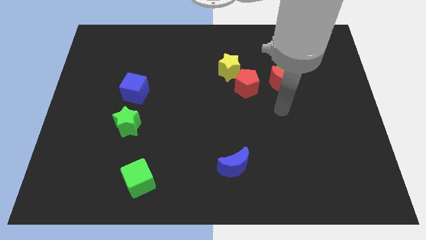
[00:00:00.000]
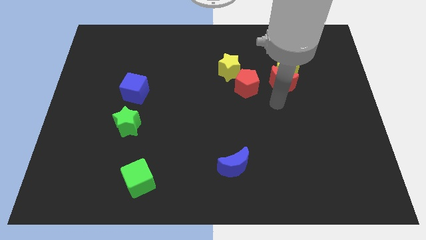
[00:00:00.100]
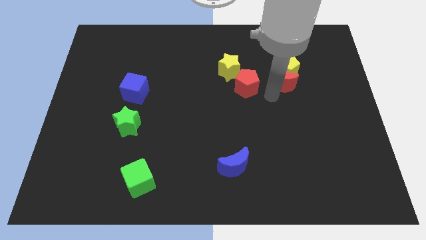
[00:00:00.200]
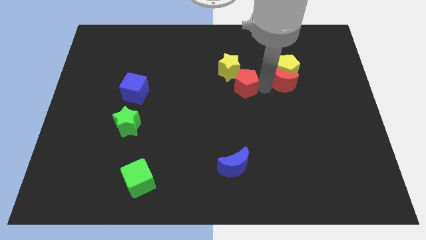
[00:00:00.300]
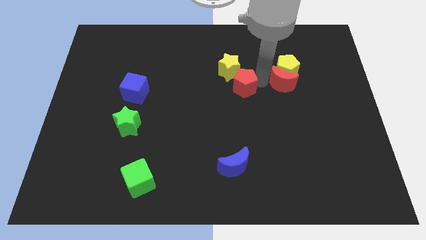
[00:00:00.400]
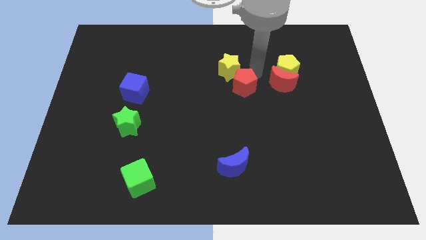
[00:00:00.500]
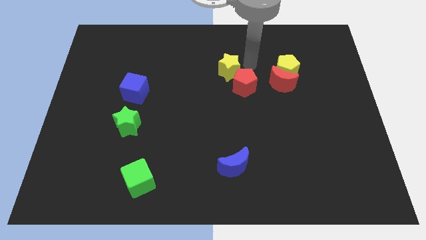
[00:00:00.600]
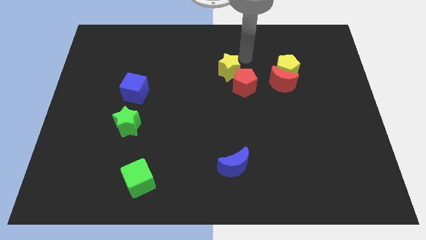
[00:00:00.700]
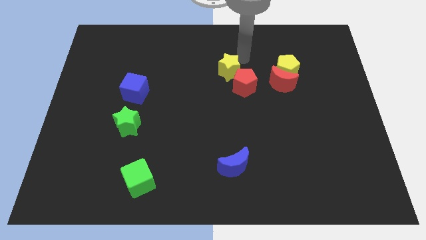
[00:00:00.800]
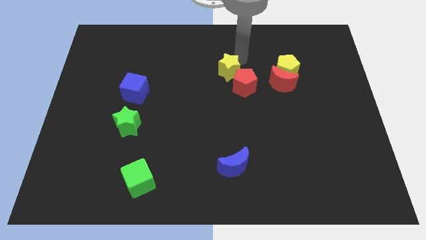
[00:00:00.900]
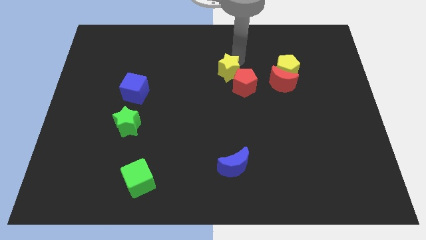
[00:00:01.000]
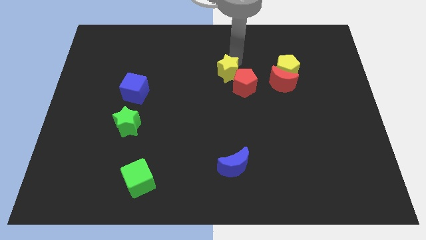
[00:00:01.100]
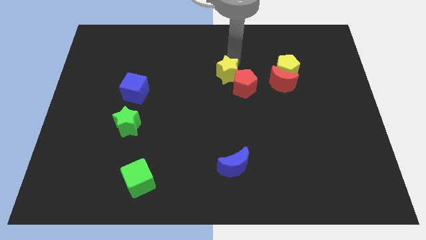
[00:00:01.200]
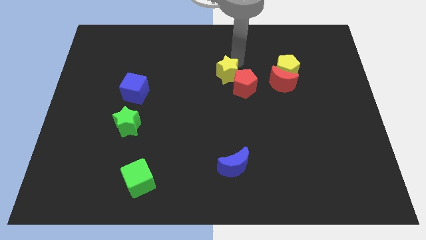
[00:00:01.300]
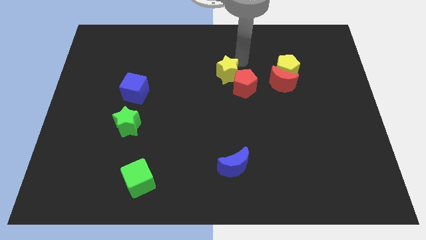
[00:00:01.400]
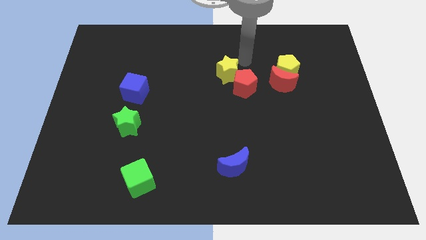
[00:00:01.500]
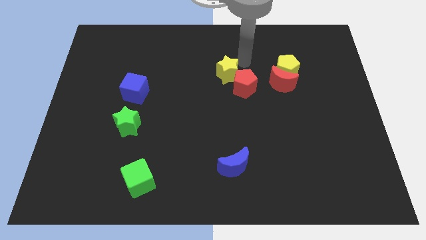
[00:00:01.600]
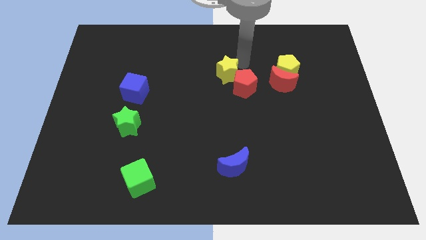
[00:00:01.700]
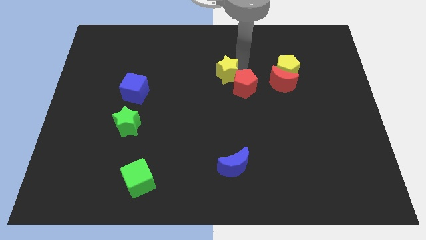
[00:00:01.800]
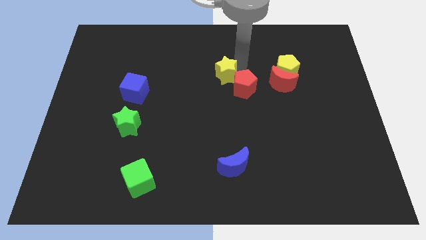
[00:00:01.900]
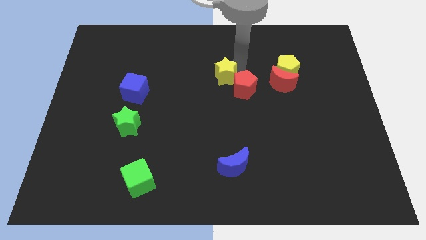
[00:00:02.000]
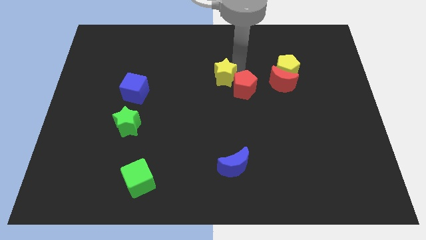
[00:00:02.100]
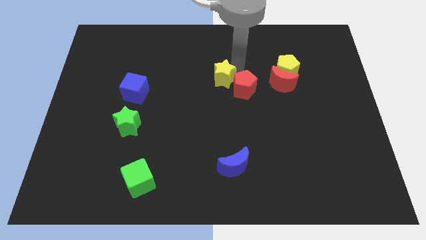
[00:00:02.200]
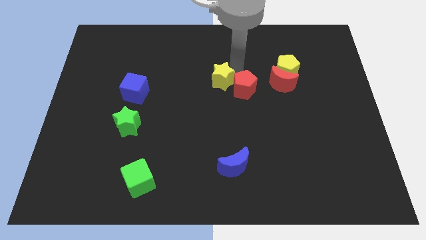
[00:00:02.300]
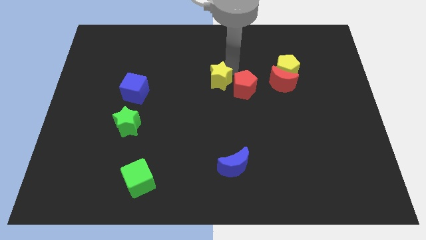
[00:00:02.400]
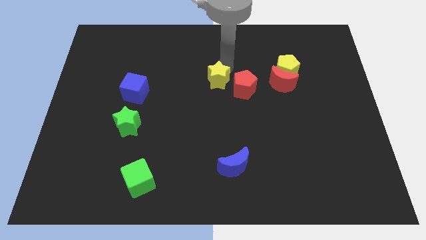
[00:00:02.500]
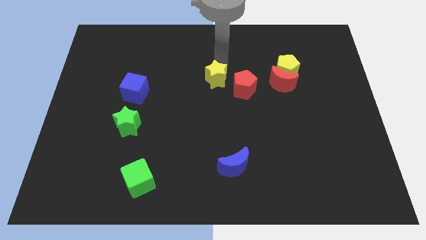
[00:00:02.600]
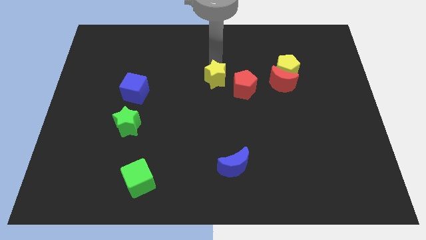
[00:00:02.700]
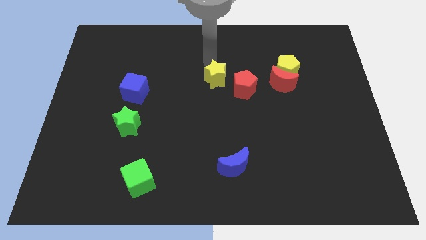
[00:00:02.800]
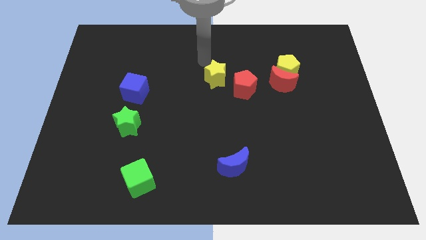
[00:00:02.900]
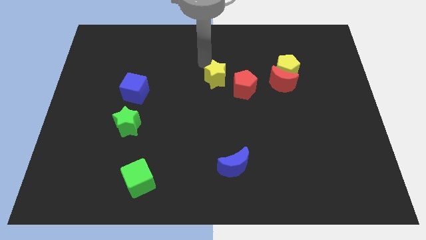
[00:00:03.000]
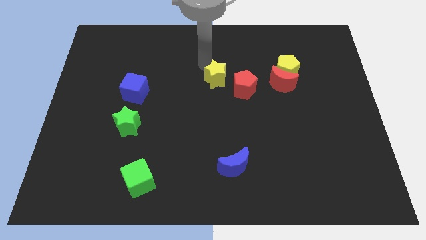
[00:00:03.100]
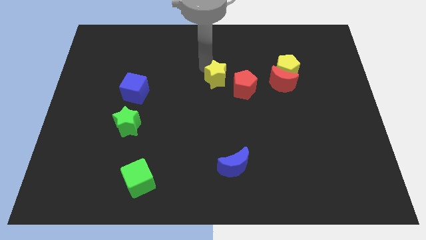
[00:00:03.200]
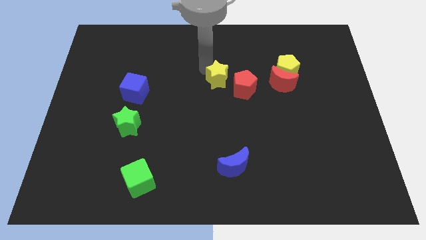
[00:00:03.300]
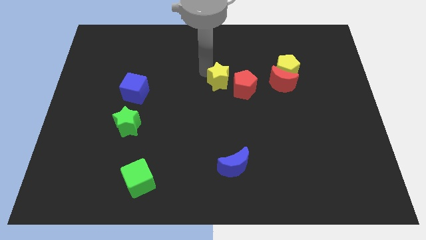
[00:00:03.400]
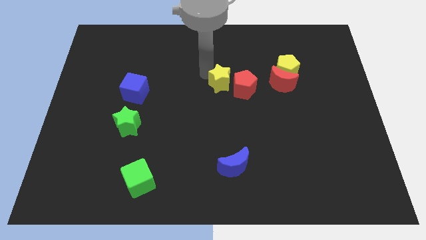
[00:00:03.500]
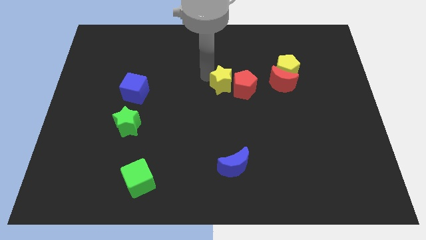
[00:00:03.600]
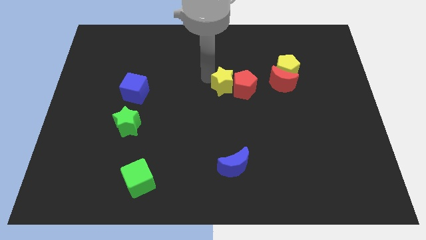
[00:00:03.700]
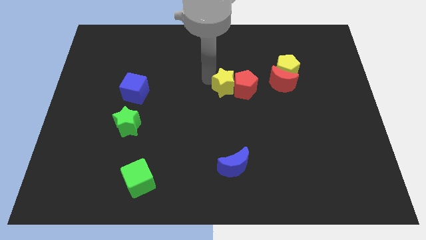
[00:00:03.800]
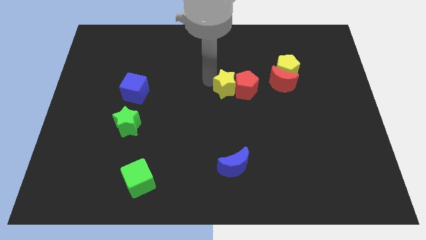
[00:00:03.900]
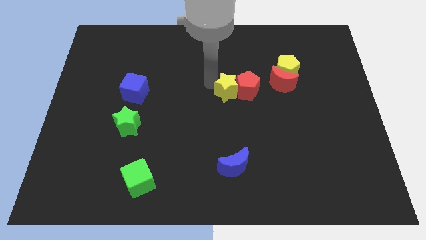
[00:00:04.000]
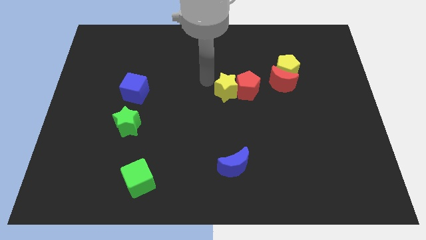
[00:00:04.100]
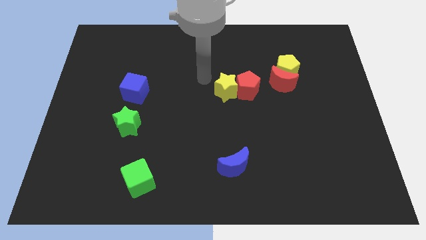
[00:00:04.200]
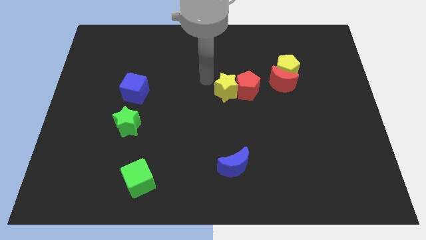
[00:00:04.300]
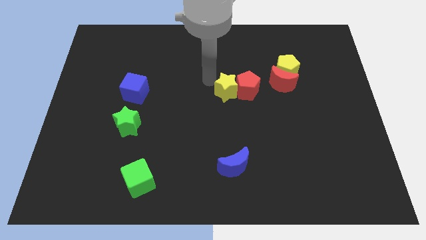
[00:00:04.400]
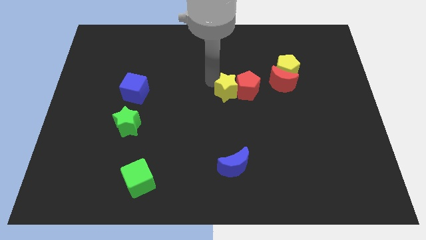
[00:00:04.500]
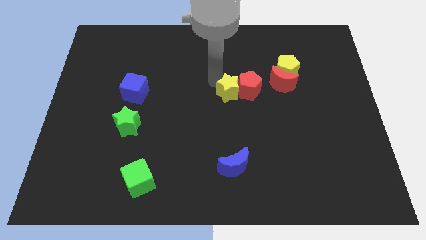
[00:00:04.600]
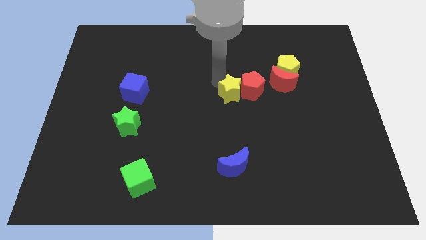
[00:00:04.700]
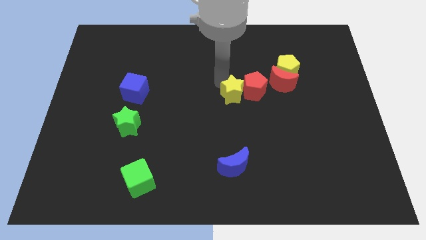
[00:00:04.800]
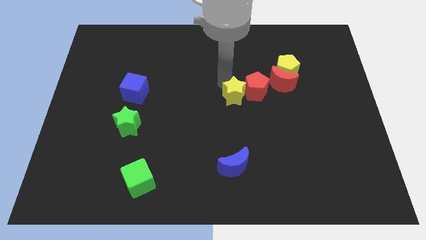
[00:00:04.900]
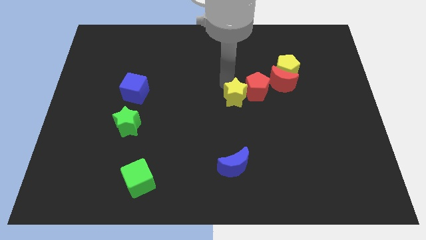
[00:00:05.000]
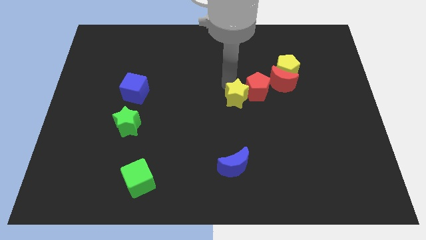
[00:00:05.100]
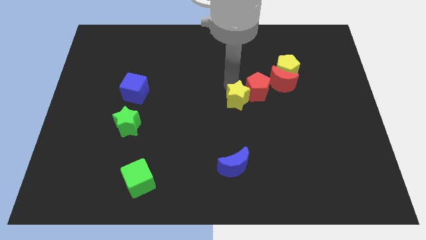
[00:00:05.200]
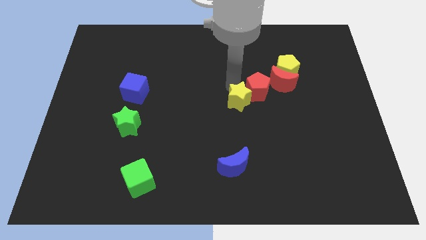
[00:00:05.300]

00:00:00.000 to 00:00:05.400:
slightly push the yellow star down and right diagonally

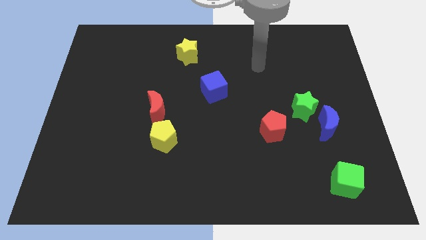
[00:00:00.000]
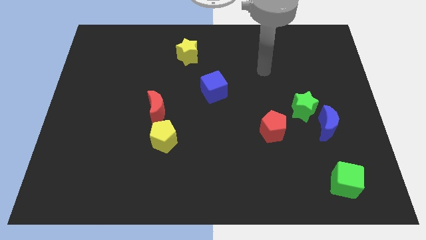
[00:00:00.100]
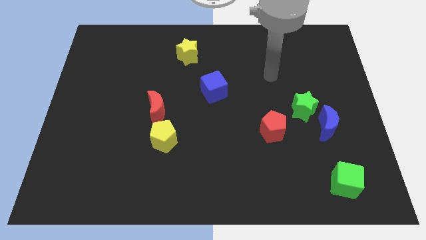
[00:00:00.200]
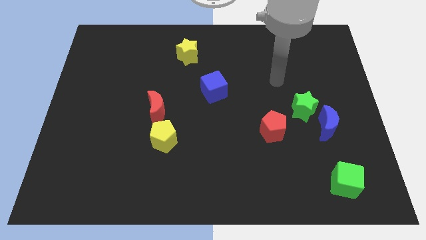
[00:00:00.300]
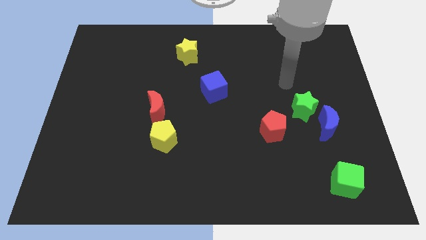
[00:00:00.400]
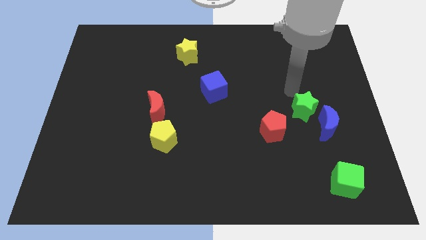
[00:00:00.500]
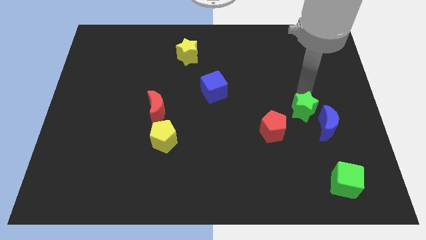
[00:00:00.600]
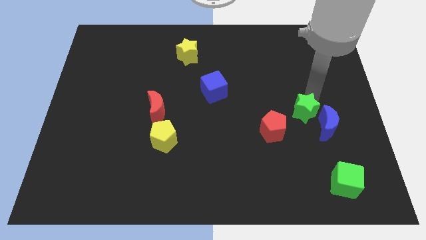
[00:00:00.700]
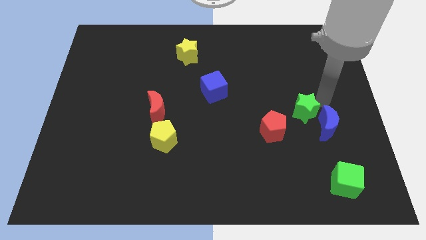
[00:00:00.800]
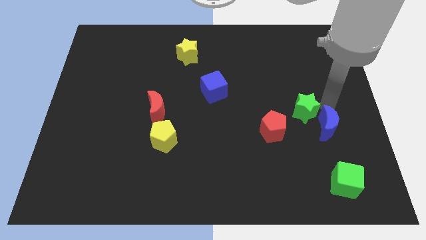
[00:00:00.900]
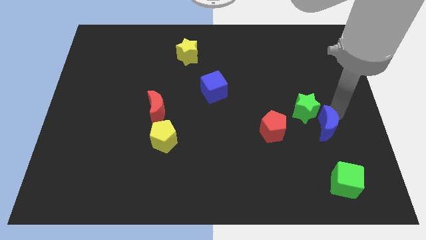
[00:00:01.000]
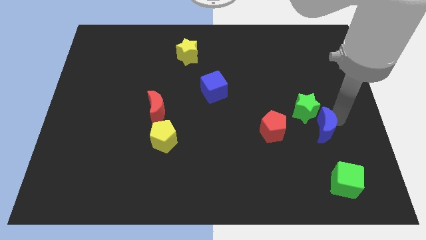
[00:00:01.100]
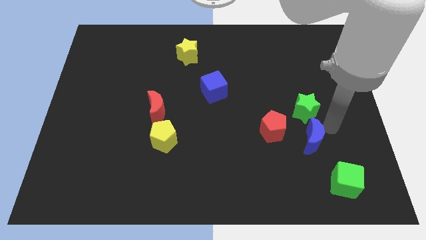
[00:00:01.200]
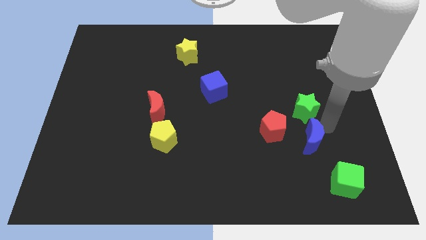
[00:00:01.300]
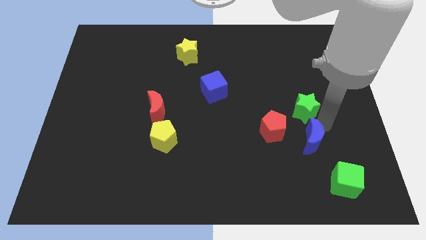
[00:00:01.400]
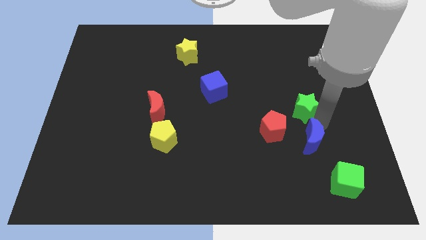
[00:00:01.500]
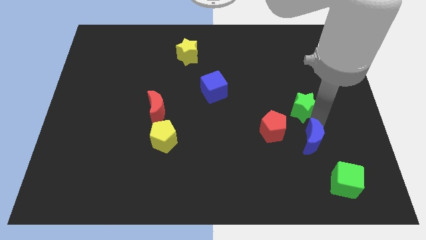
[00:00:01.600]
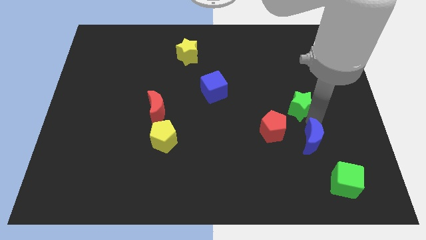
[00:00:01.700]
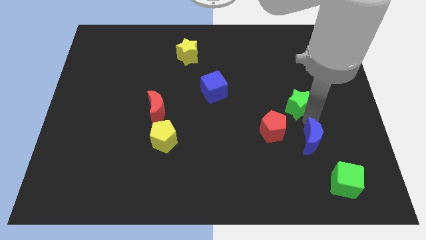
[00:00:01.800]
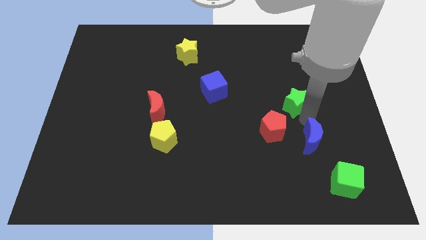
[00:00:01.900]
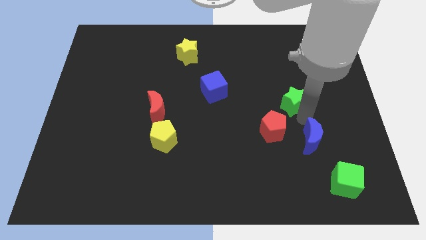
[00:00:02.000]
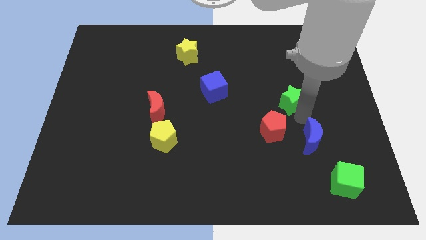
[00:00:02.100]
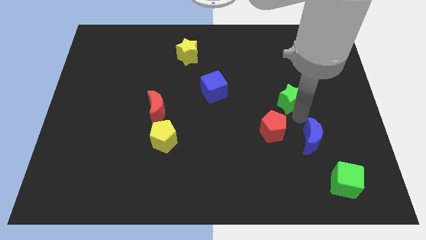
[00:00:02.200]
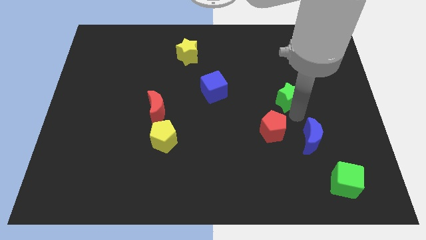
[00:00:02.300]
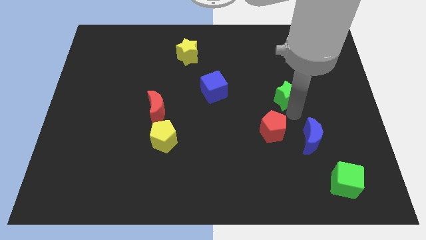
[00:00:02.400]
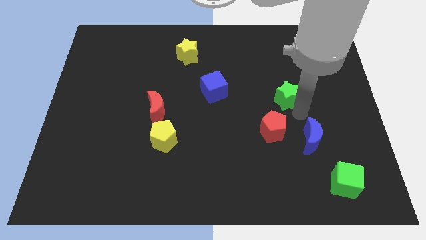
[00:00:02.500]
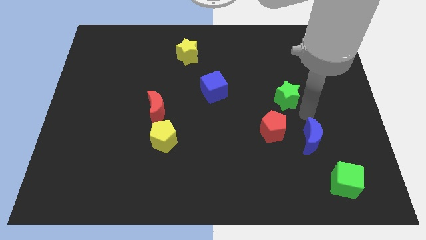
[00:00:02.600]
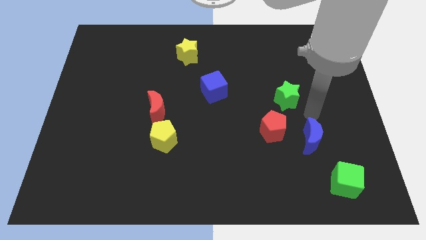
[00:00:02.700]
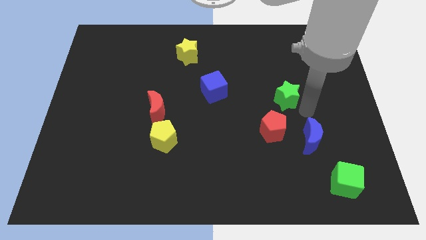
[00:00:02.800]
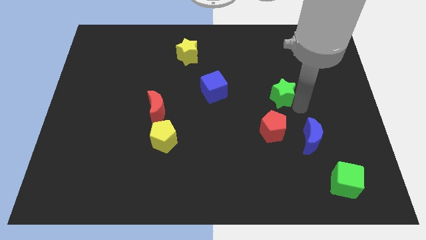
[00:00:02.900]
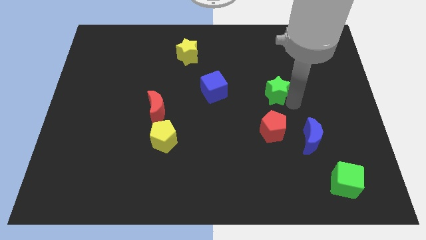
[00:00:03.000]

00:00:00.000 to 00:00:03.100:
push the green star a little upwards and to the left
